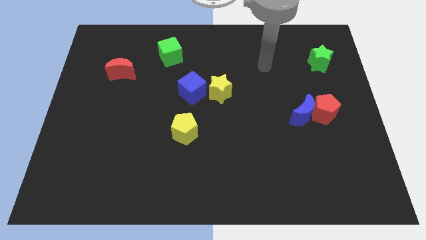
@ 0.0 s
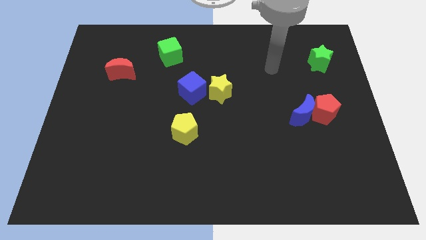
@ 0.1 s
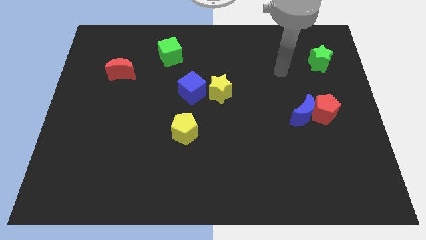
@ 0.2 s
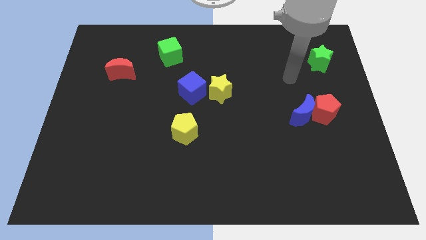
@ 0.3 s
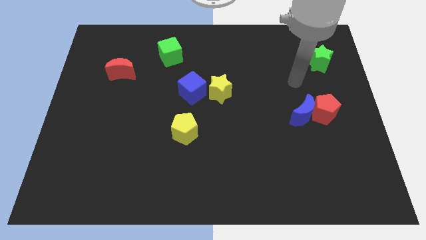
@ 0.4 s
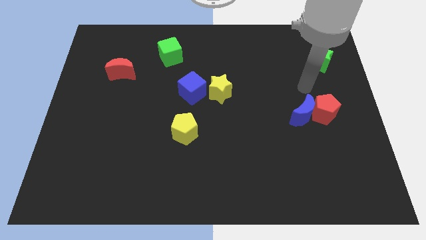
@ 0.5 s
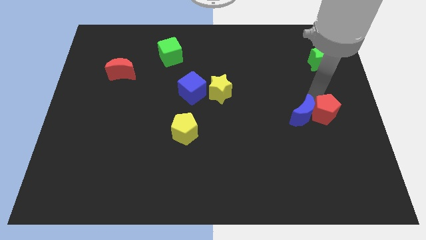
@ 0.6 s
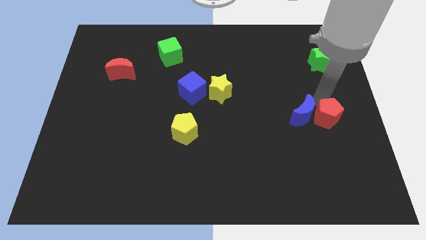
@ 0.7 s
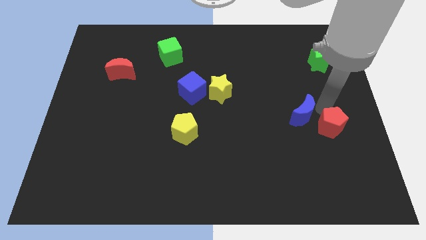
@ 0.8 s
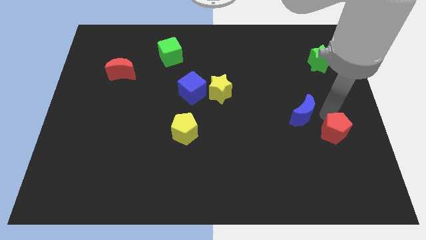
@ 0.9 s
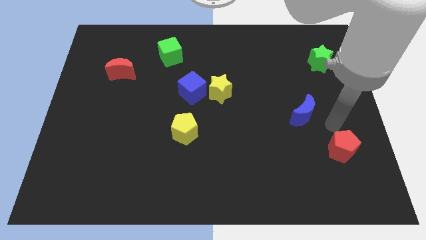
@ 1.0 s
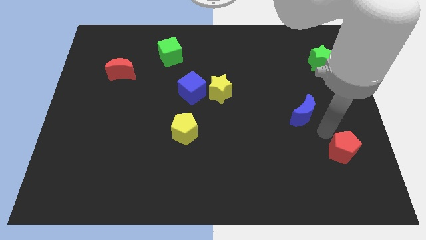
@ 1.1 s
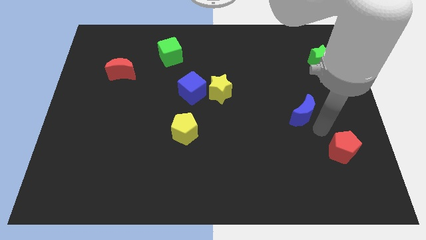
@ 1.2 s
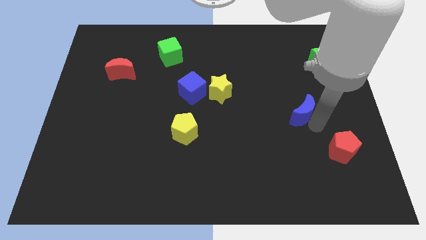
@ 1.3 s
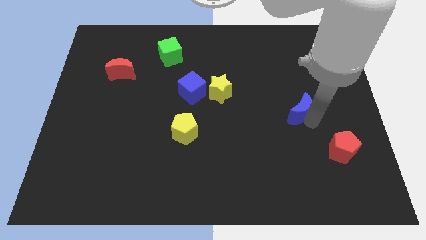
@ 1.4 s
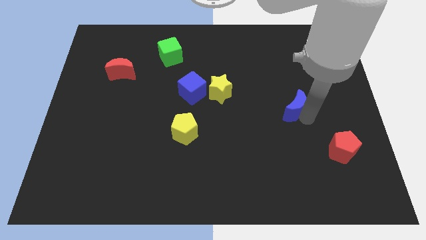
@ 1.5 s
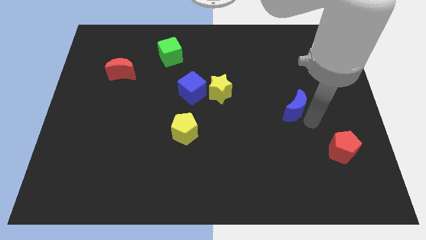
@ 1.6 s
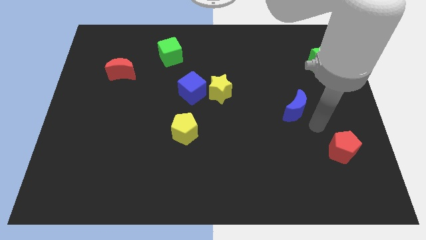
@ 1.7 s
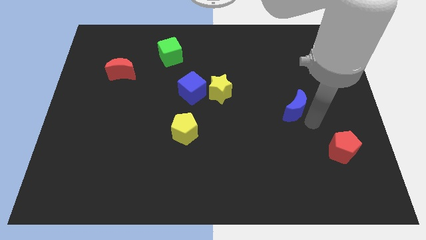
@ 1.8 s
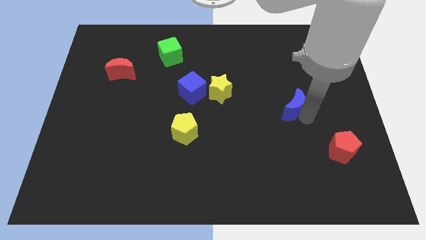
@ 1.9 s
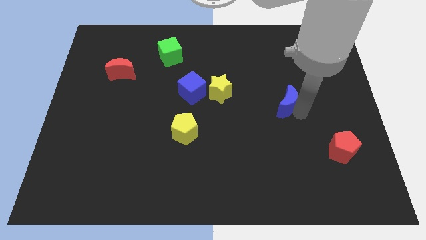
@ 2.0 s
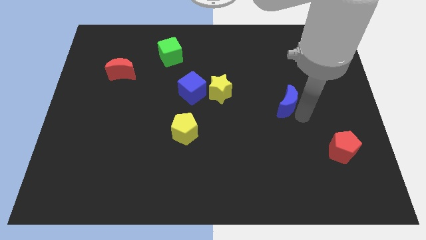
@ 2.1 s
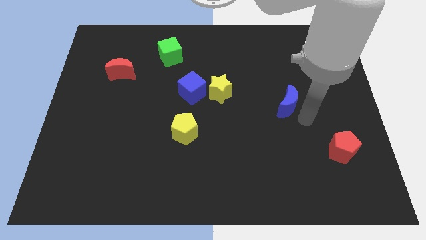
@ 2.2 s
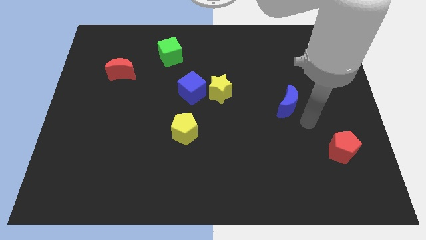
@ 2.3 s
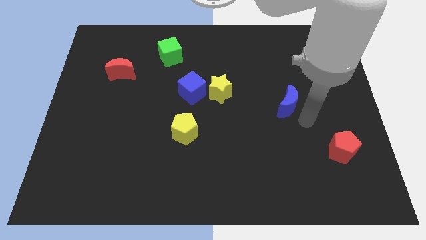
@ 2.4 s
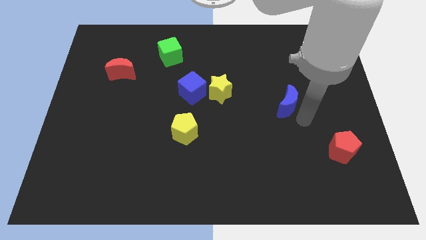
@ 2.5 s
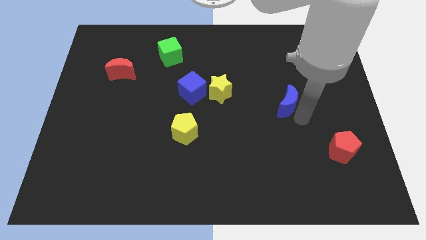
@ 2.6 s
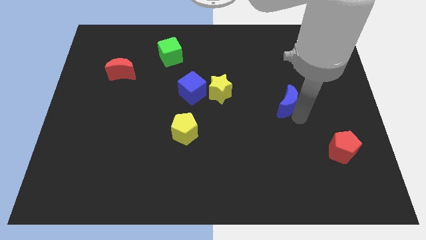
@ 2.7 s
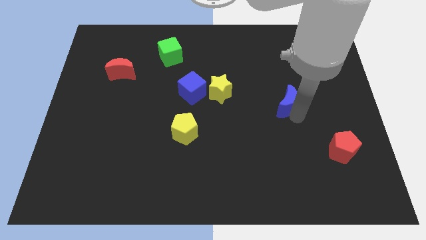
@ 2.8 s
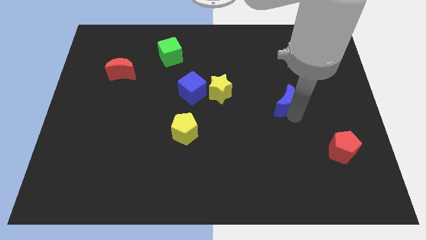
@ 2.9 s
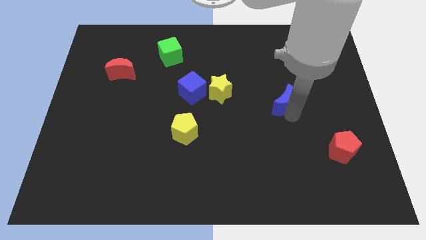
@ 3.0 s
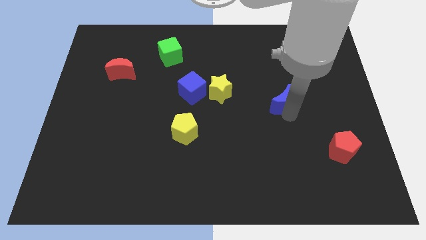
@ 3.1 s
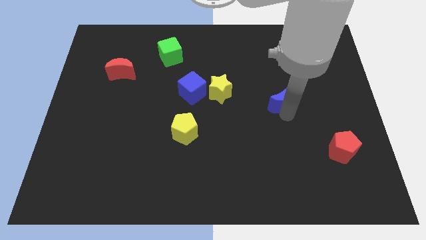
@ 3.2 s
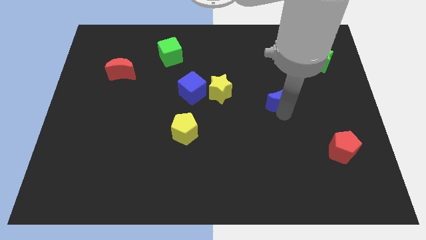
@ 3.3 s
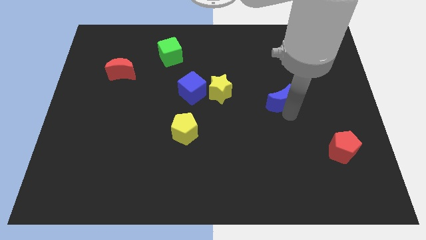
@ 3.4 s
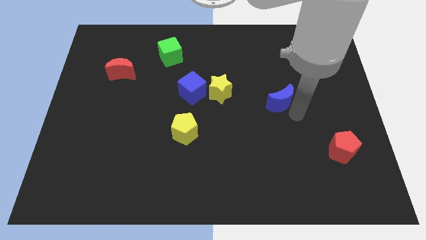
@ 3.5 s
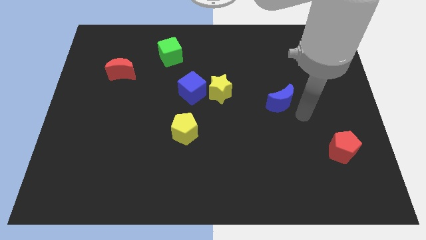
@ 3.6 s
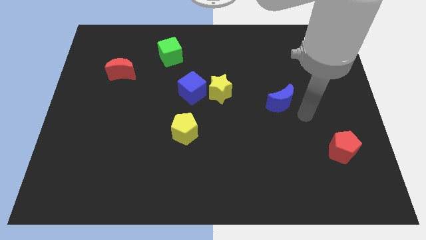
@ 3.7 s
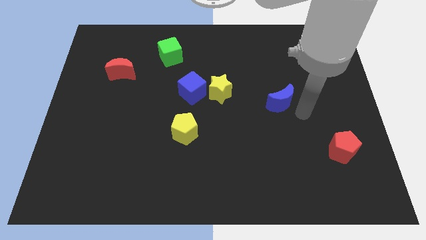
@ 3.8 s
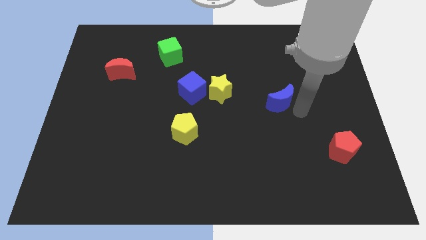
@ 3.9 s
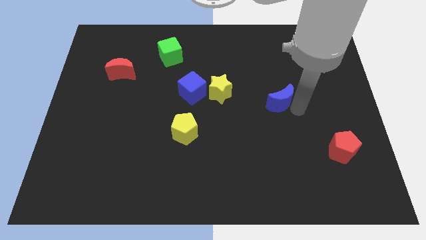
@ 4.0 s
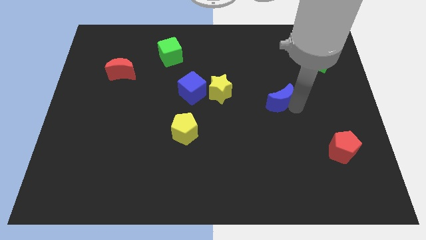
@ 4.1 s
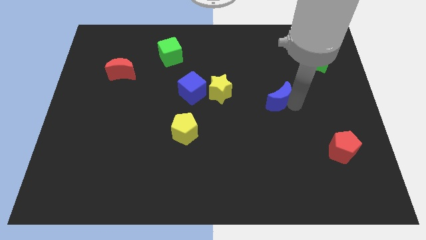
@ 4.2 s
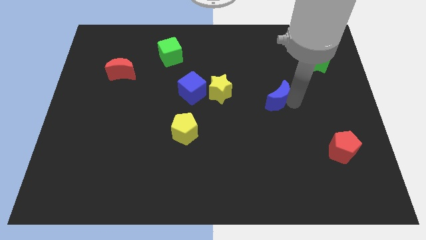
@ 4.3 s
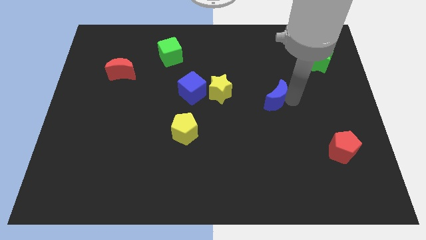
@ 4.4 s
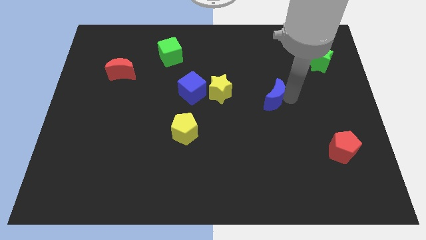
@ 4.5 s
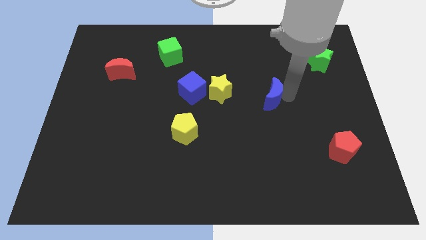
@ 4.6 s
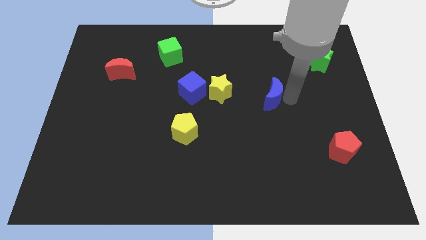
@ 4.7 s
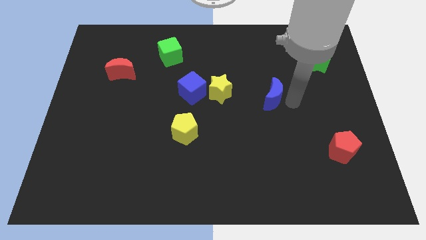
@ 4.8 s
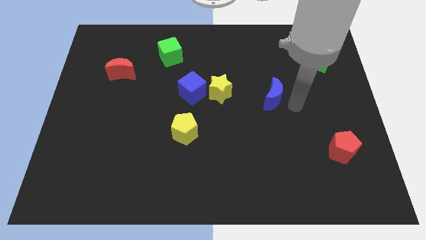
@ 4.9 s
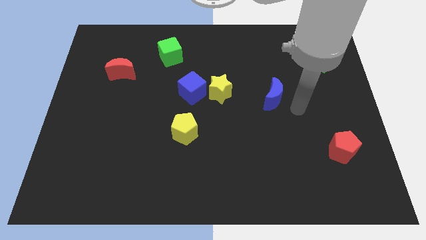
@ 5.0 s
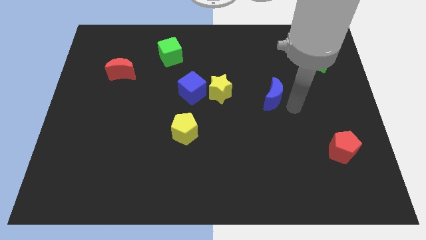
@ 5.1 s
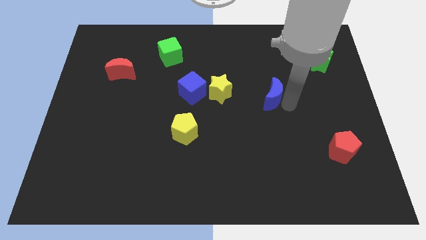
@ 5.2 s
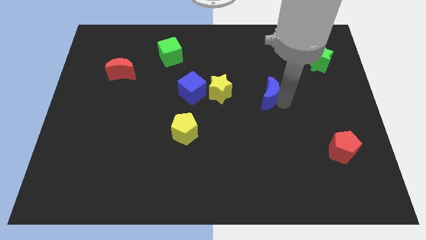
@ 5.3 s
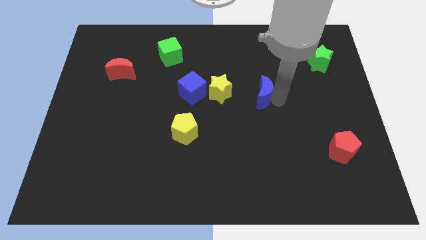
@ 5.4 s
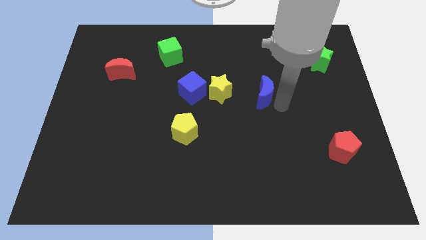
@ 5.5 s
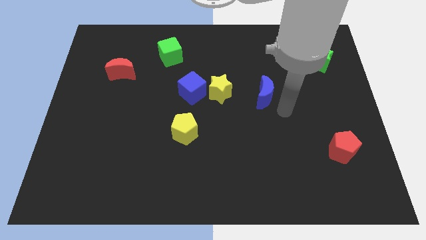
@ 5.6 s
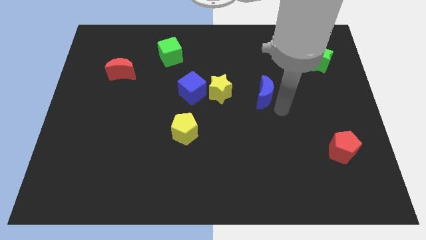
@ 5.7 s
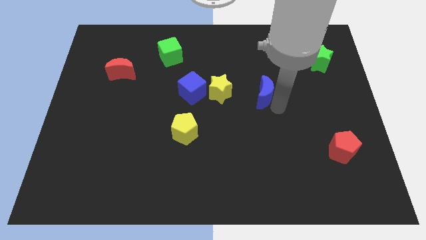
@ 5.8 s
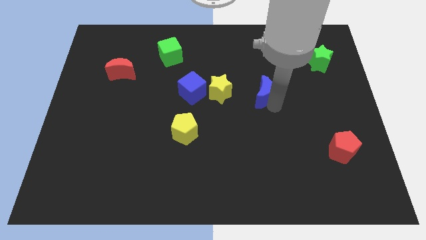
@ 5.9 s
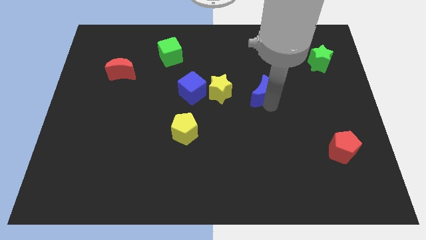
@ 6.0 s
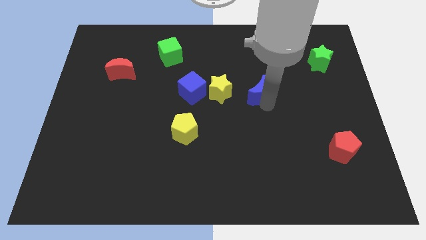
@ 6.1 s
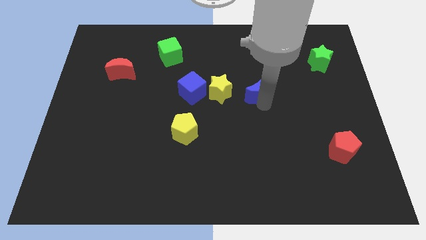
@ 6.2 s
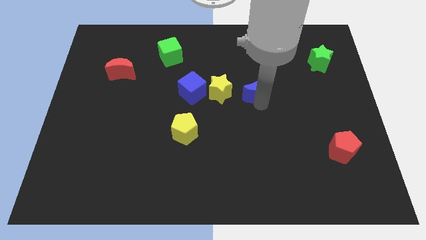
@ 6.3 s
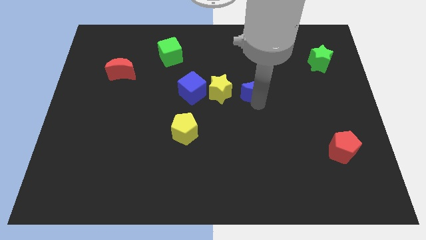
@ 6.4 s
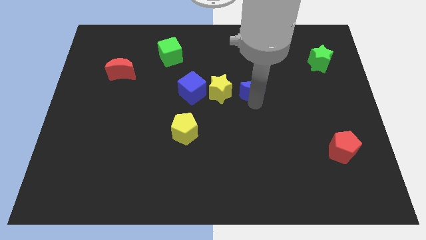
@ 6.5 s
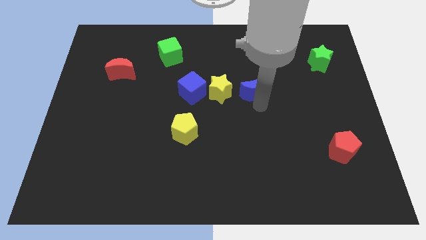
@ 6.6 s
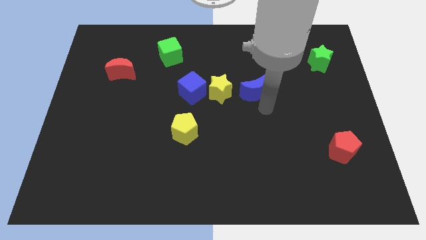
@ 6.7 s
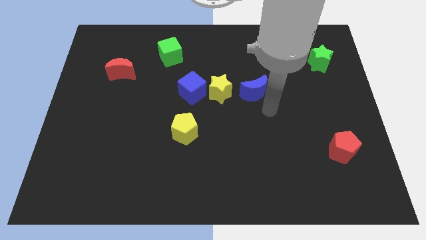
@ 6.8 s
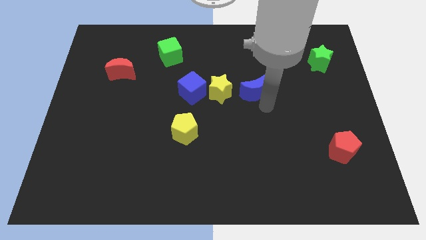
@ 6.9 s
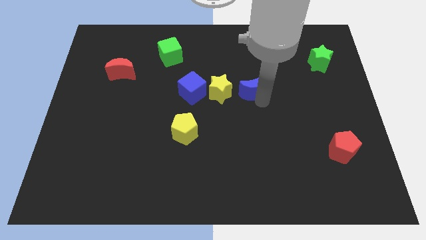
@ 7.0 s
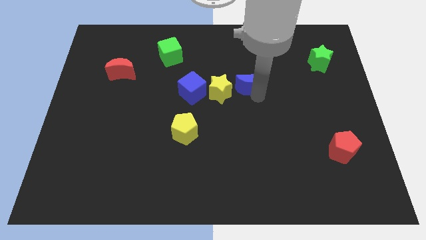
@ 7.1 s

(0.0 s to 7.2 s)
move the blue moon to the top right of the yellow star
